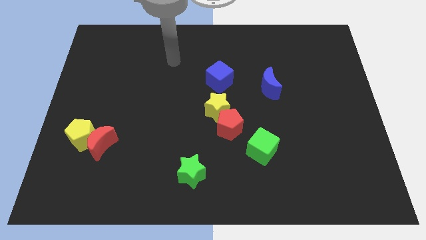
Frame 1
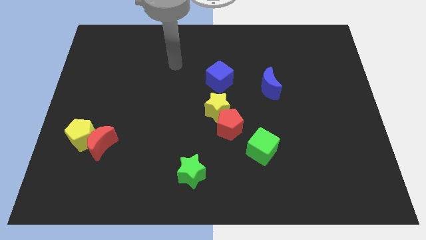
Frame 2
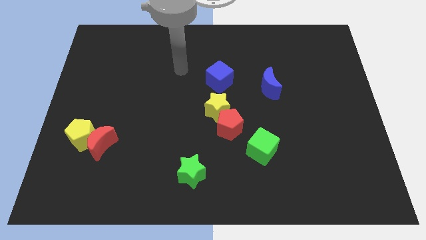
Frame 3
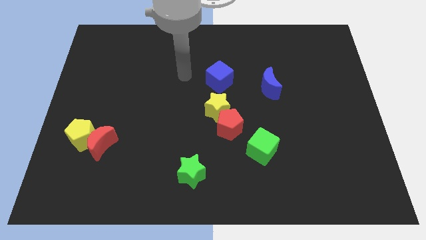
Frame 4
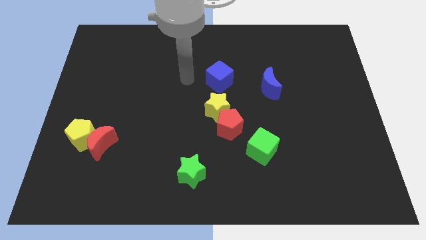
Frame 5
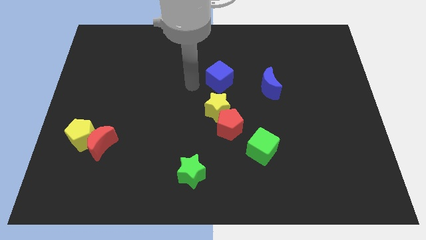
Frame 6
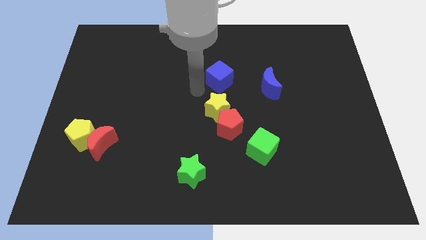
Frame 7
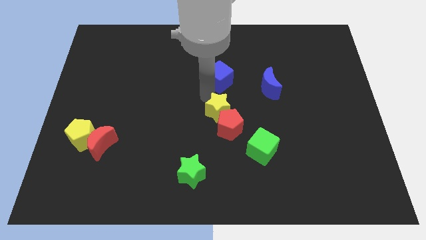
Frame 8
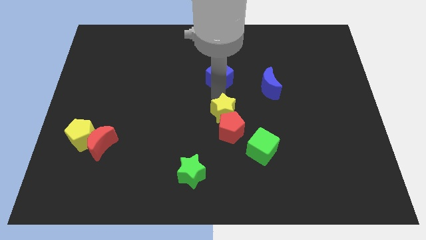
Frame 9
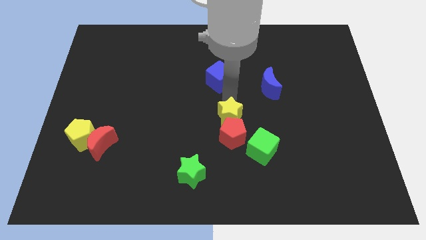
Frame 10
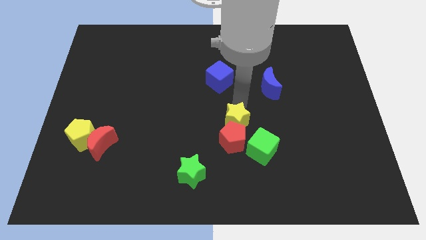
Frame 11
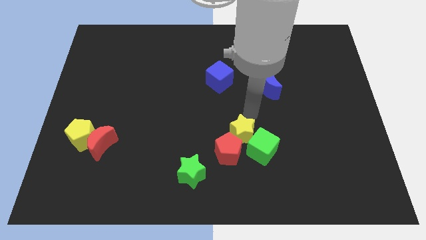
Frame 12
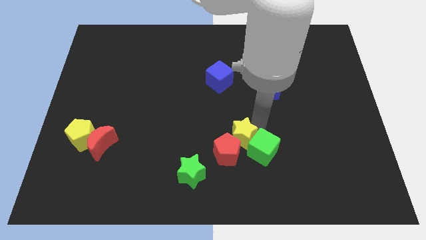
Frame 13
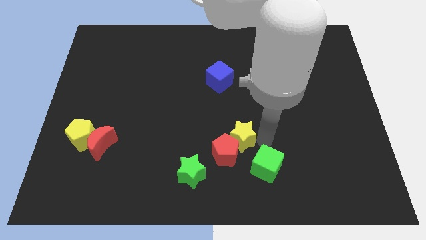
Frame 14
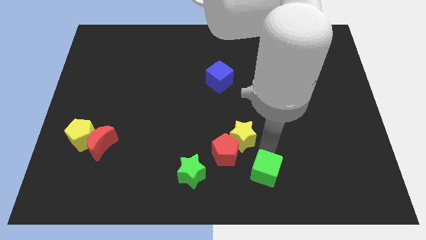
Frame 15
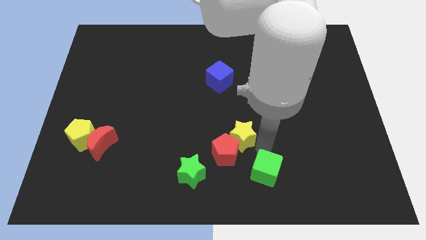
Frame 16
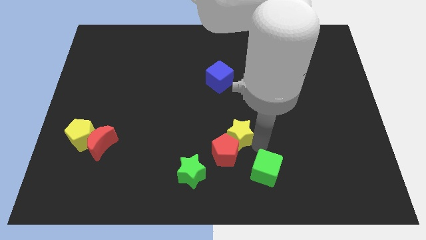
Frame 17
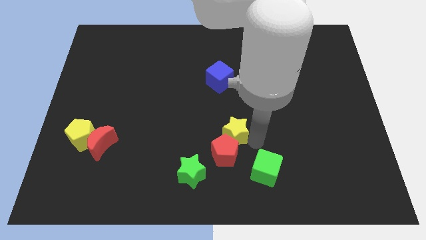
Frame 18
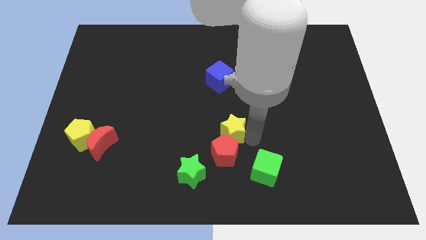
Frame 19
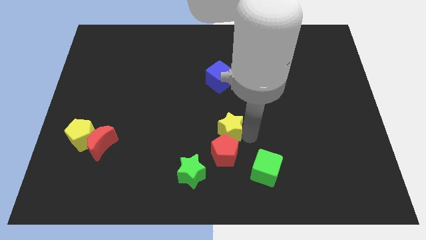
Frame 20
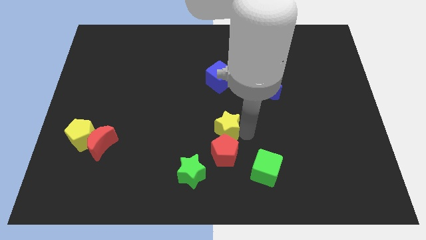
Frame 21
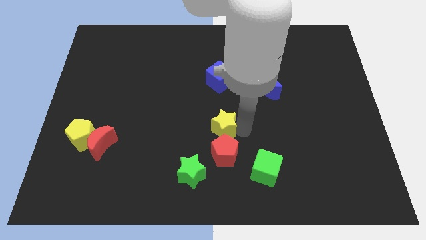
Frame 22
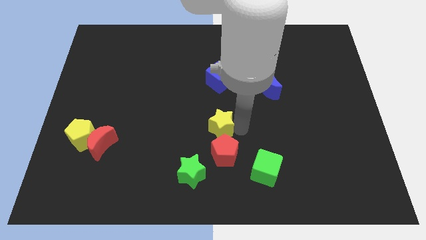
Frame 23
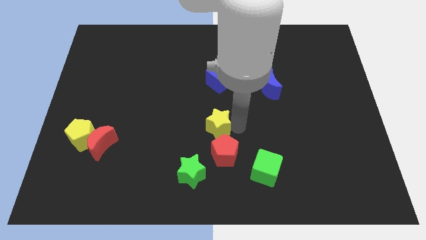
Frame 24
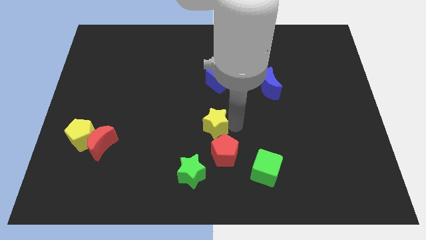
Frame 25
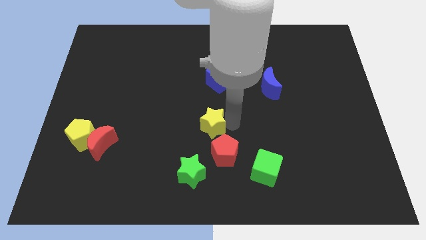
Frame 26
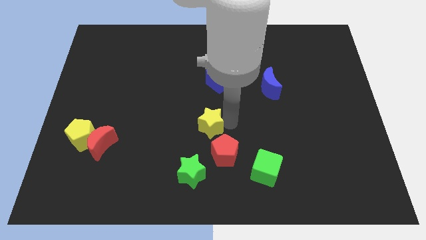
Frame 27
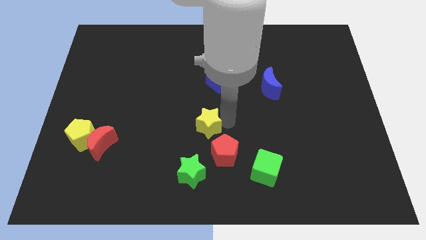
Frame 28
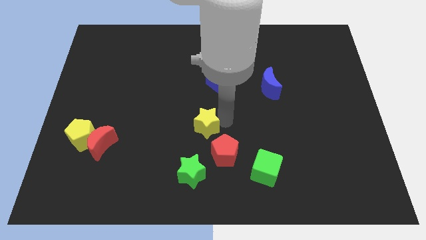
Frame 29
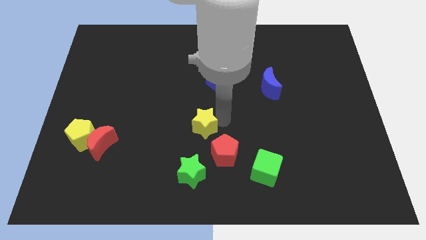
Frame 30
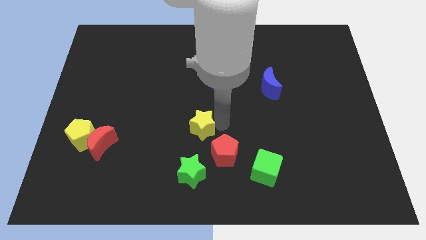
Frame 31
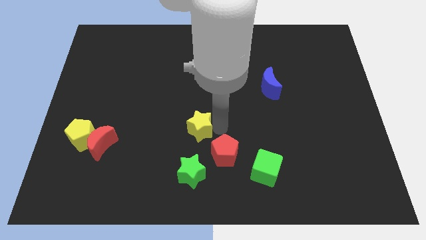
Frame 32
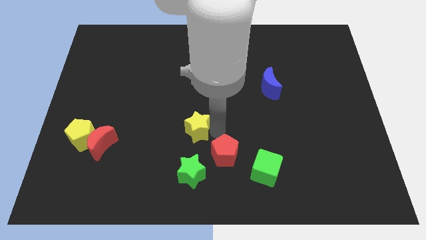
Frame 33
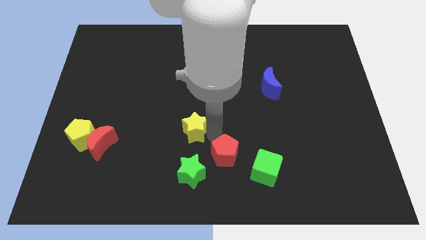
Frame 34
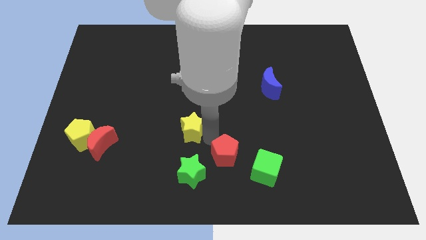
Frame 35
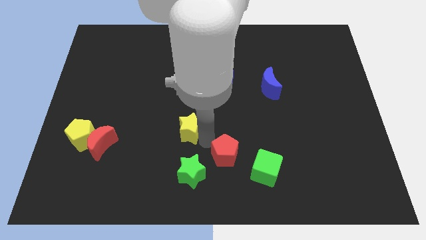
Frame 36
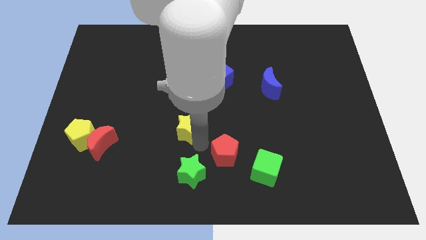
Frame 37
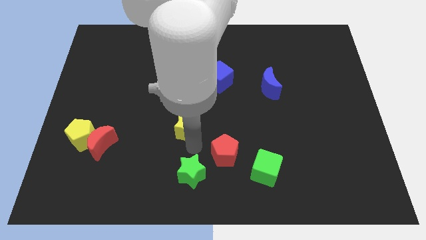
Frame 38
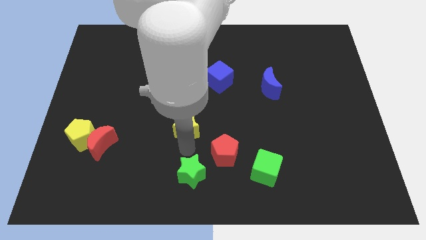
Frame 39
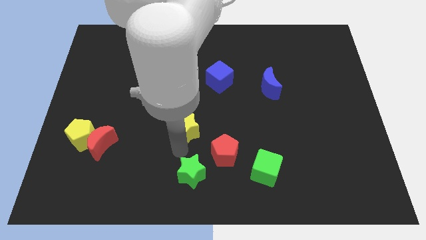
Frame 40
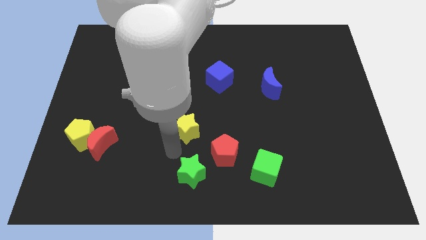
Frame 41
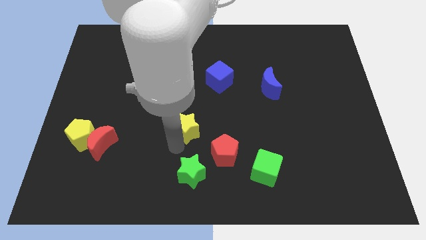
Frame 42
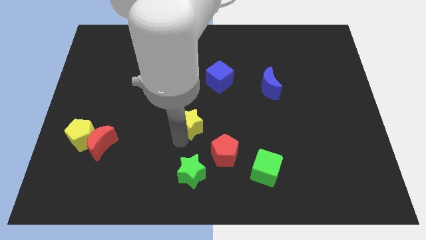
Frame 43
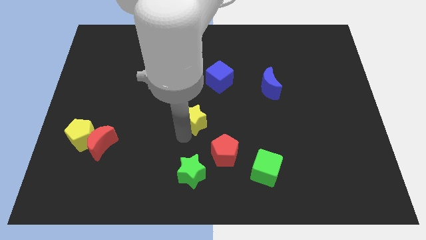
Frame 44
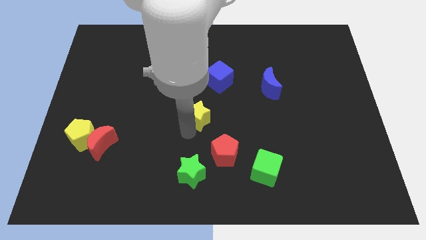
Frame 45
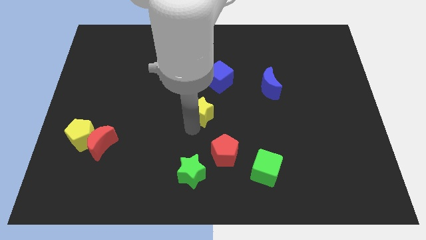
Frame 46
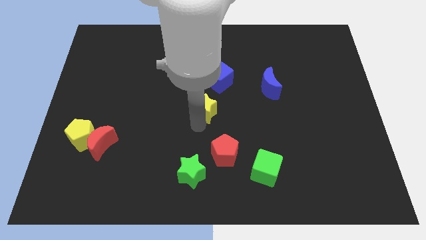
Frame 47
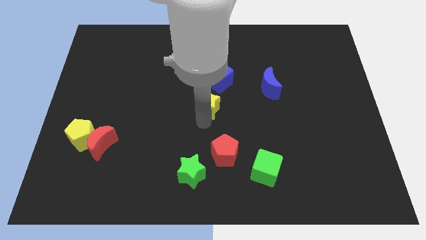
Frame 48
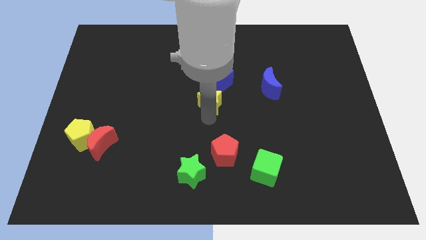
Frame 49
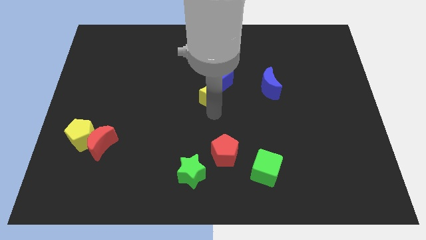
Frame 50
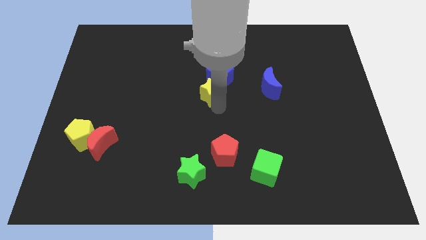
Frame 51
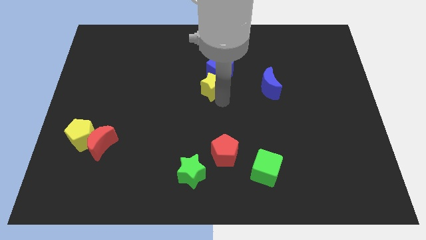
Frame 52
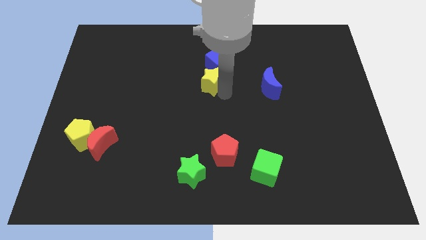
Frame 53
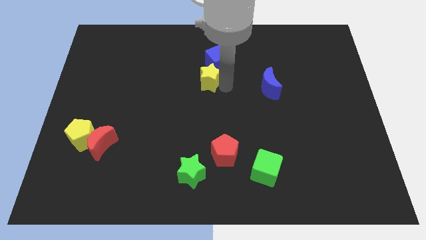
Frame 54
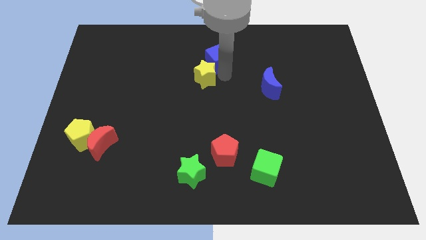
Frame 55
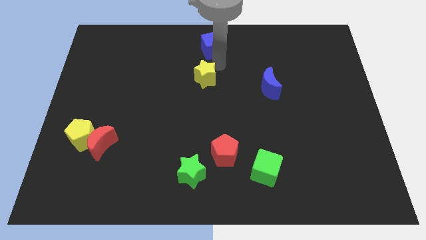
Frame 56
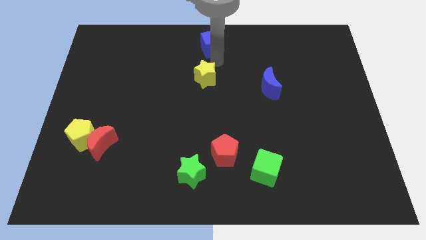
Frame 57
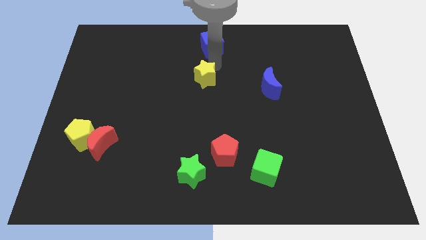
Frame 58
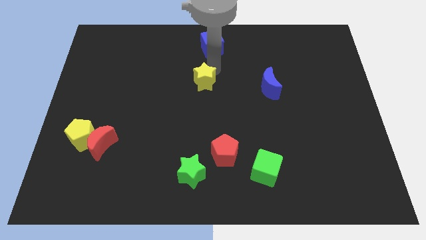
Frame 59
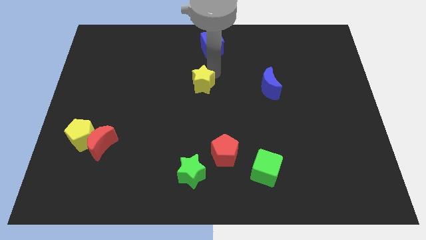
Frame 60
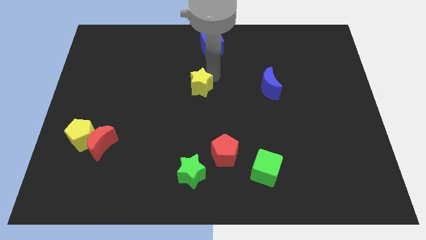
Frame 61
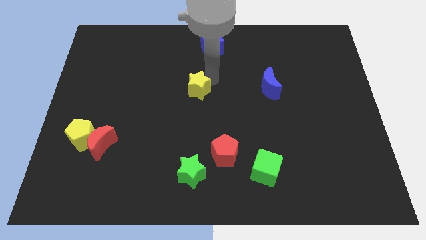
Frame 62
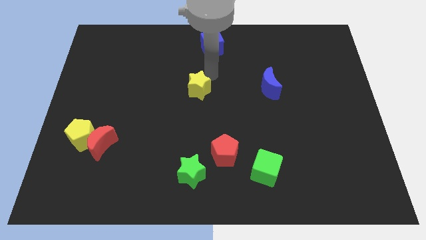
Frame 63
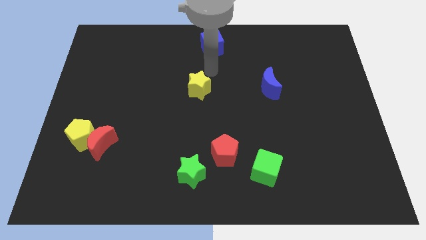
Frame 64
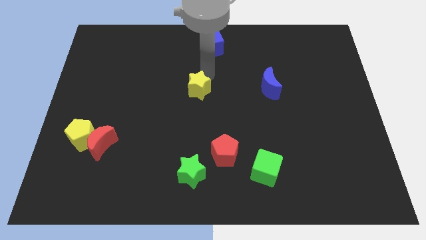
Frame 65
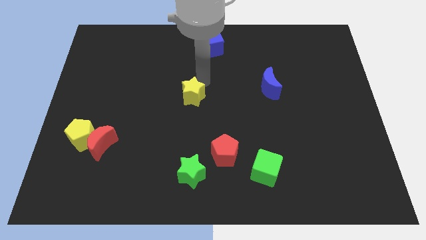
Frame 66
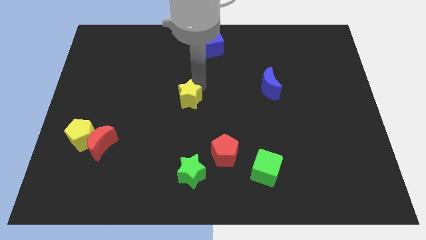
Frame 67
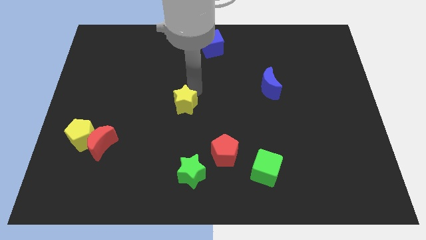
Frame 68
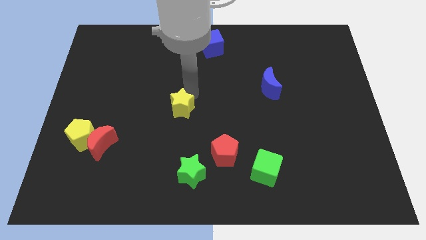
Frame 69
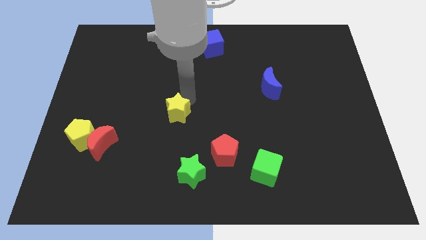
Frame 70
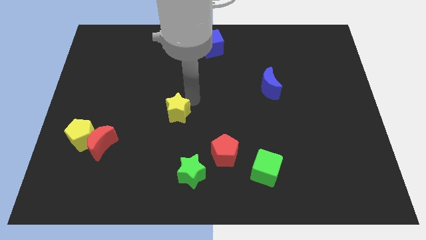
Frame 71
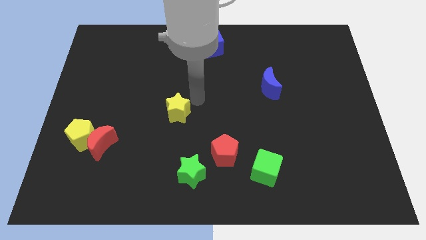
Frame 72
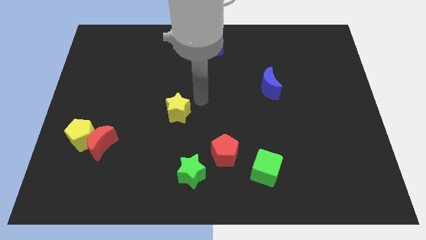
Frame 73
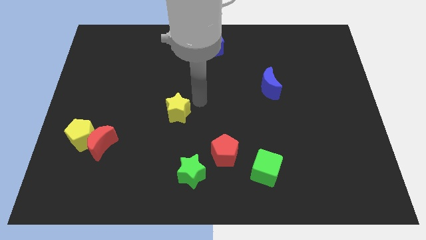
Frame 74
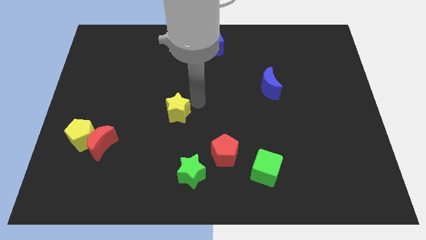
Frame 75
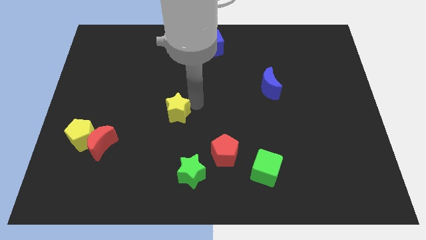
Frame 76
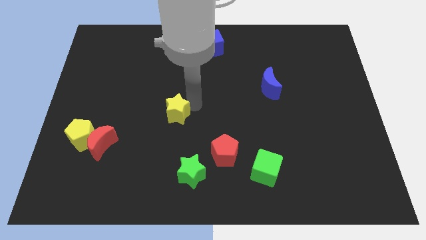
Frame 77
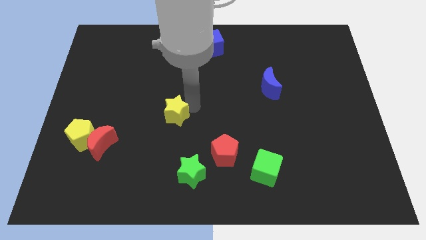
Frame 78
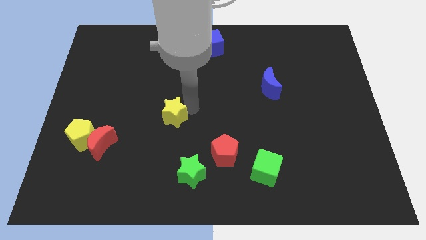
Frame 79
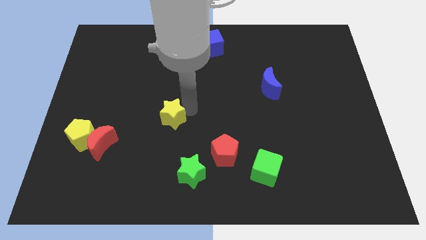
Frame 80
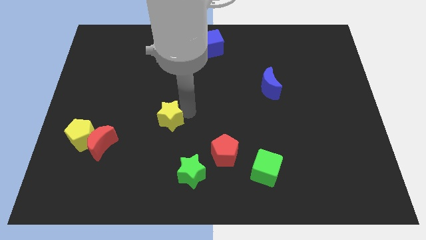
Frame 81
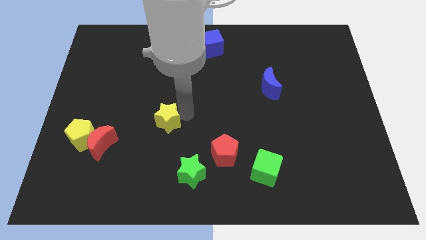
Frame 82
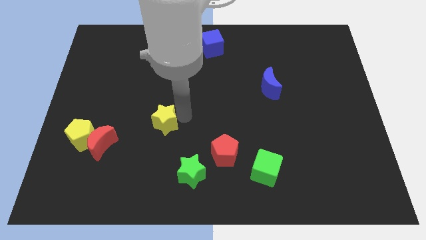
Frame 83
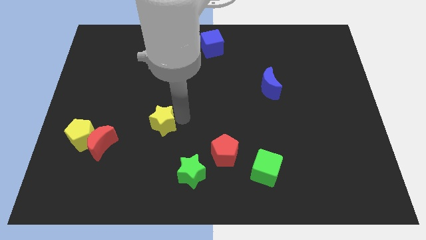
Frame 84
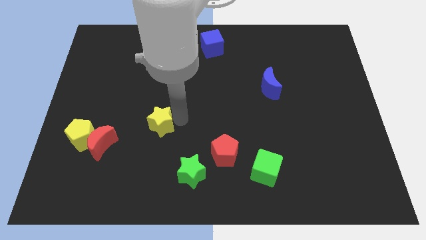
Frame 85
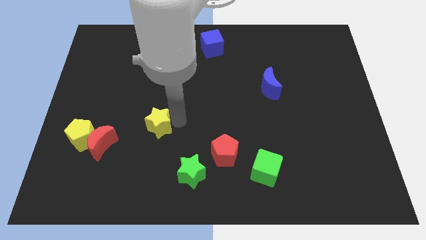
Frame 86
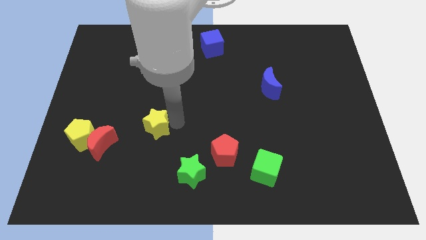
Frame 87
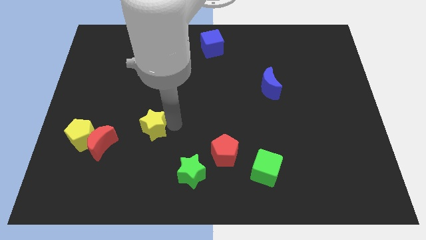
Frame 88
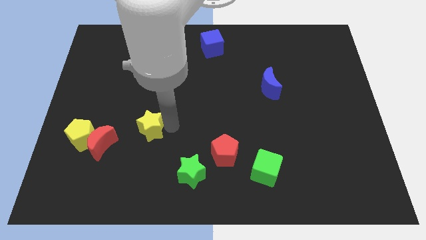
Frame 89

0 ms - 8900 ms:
put the yellow star to the top right side of the red moon
